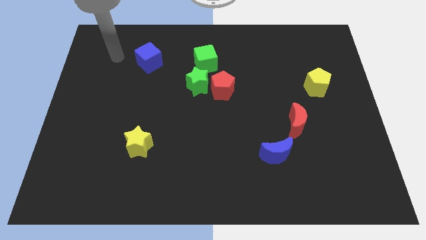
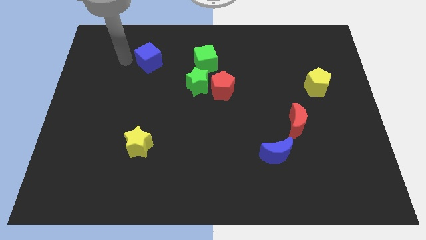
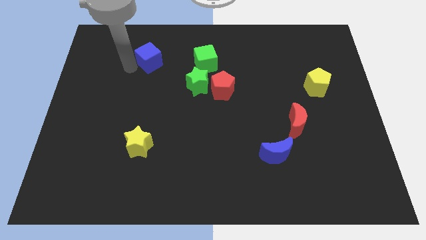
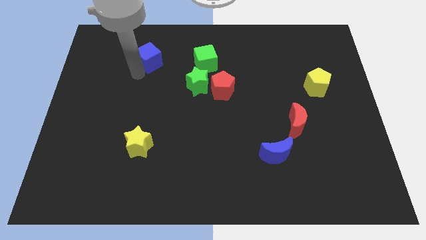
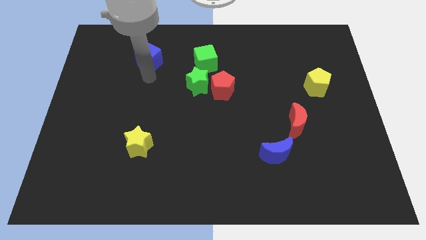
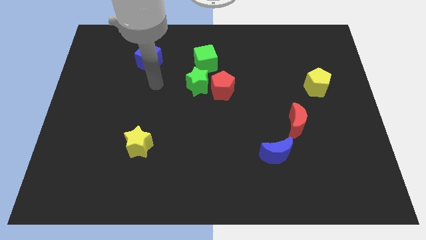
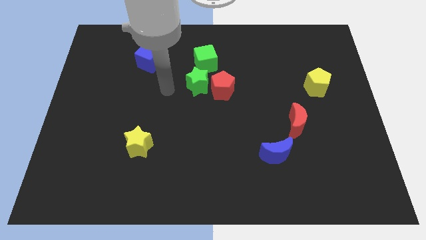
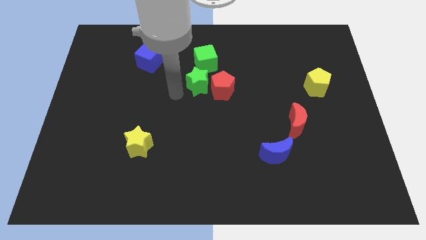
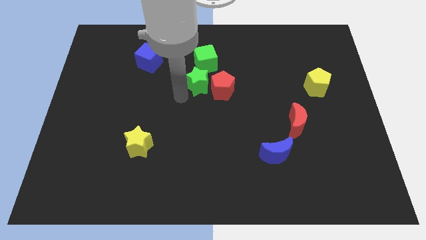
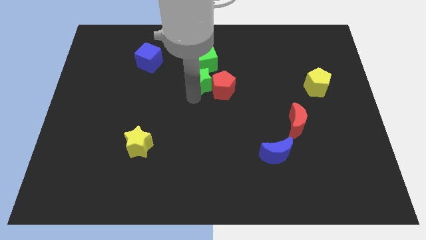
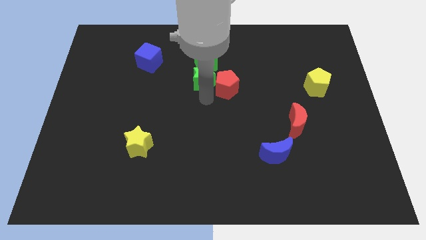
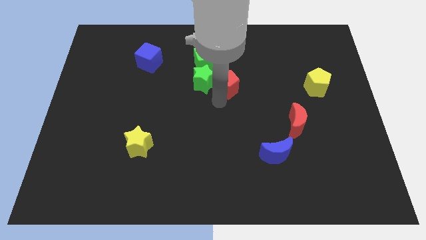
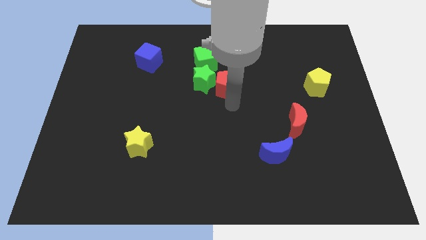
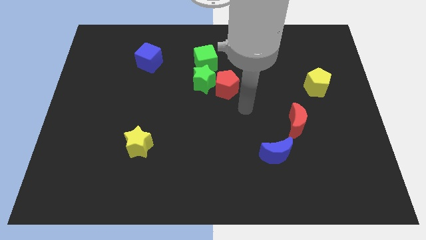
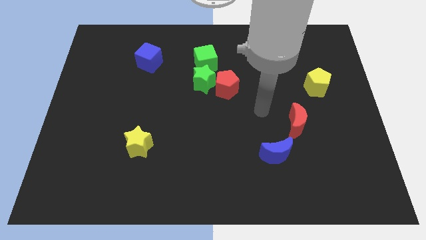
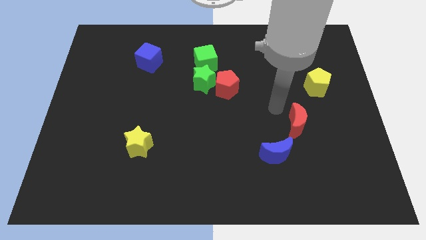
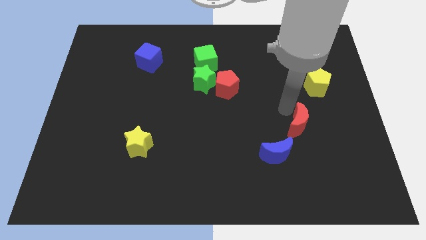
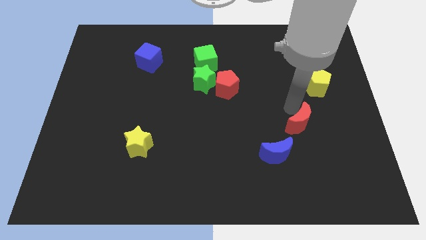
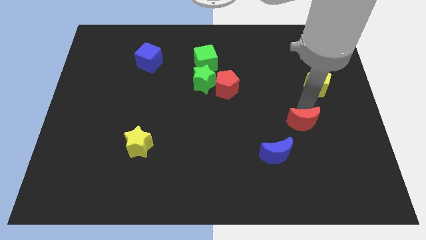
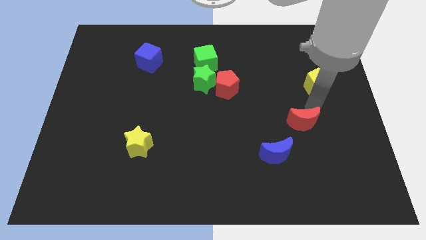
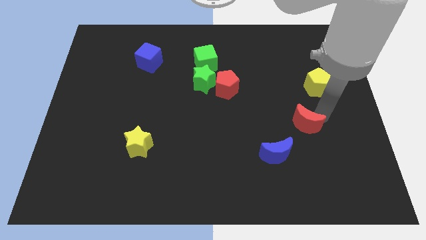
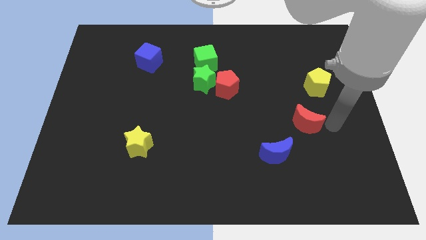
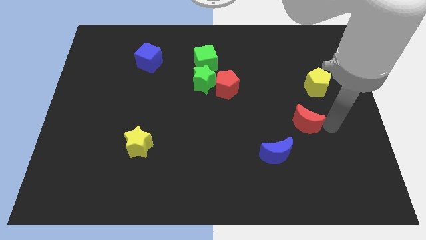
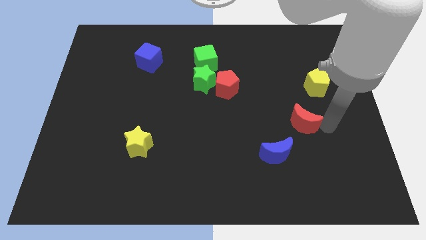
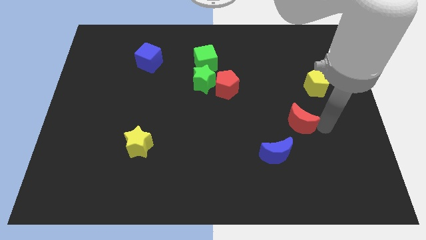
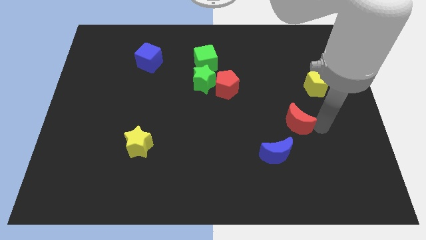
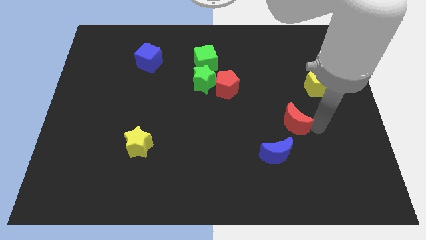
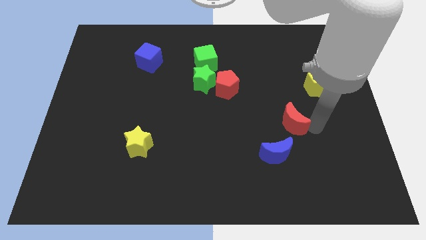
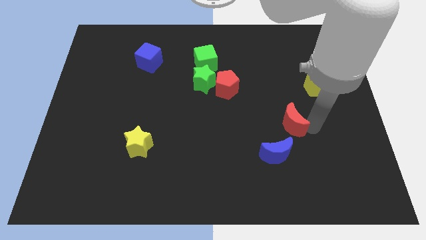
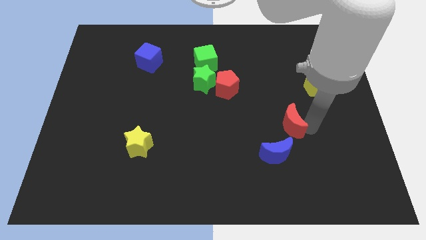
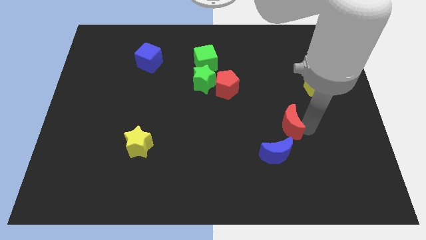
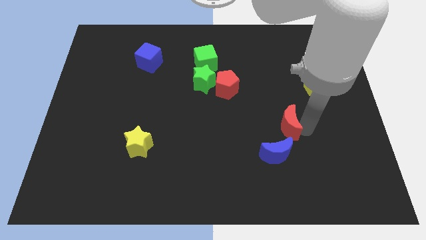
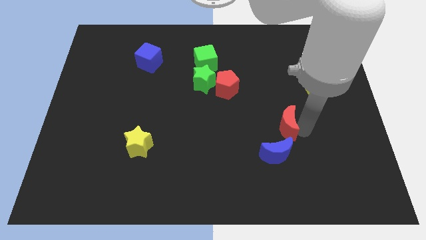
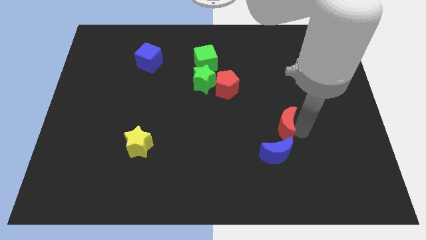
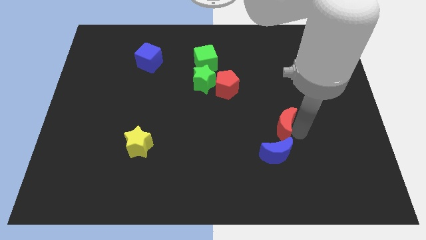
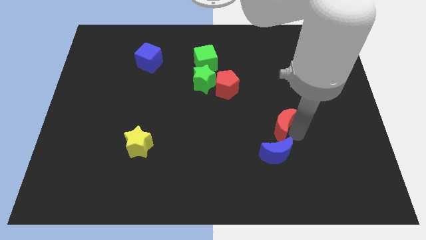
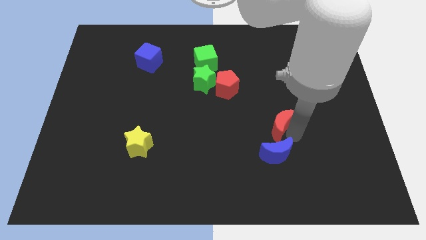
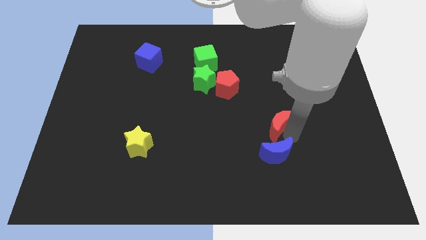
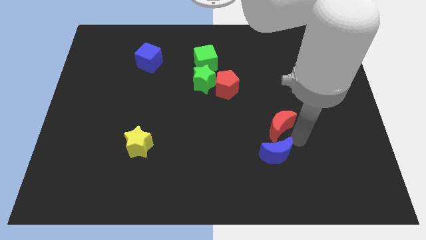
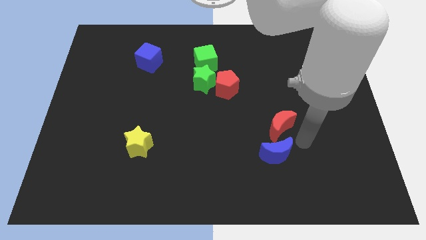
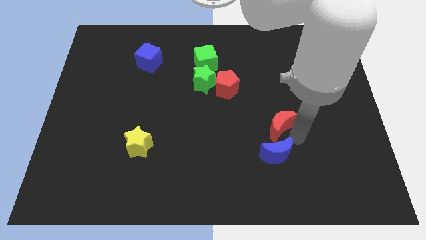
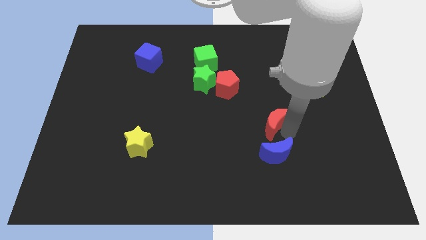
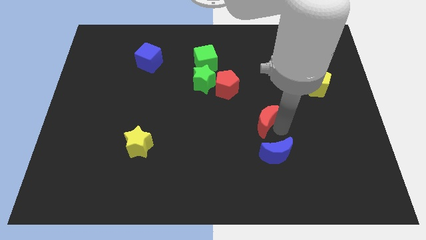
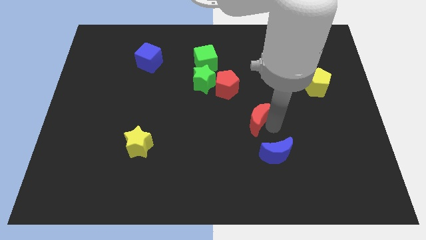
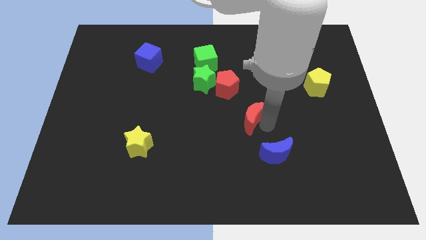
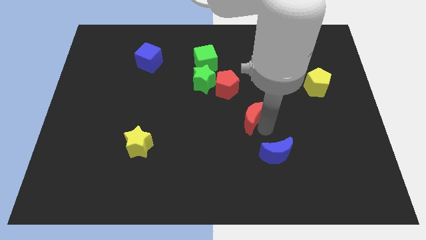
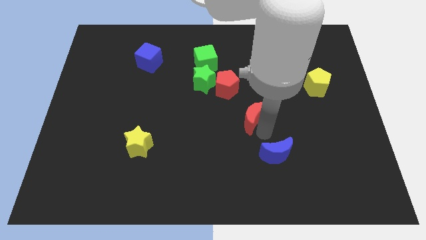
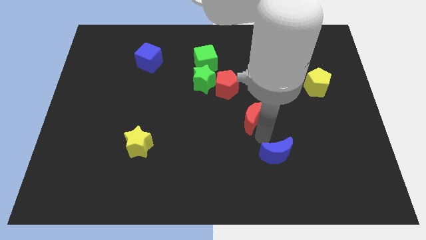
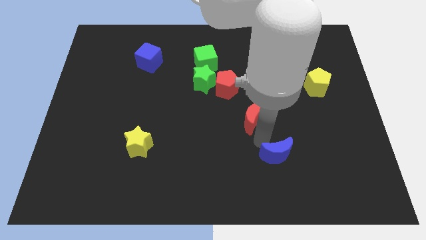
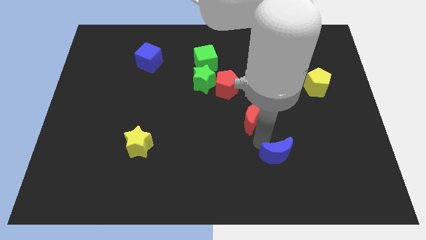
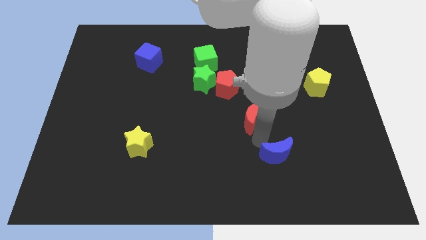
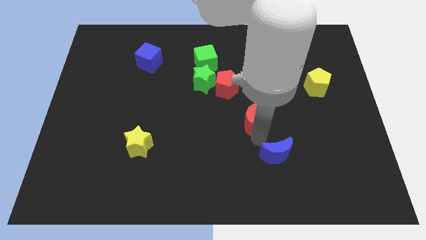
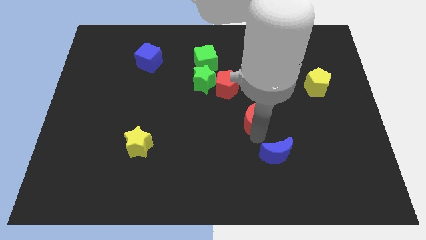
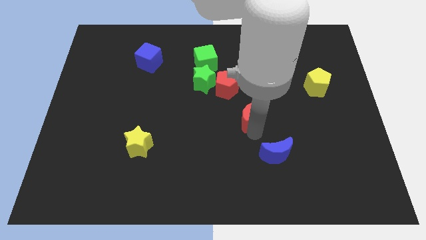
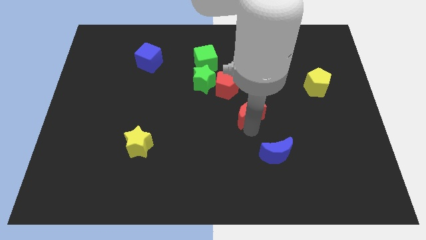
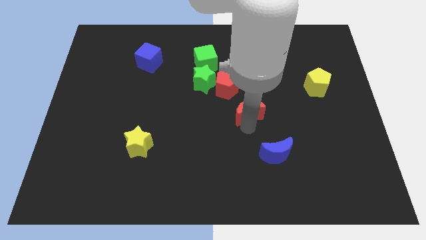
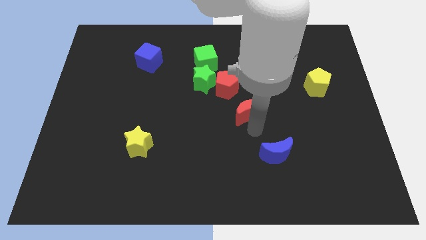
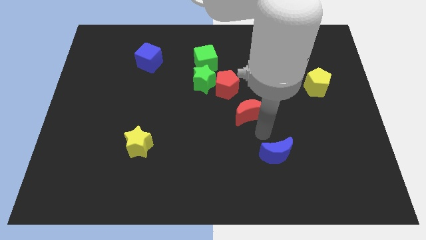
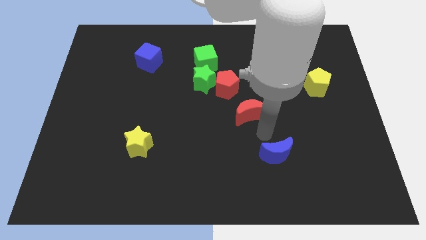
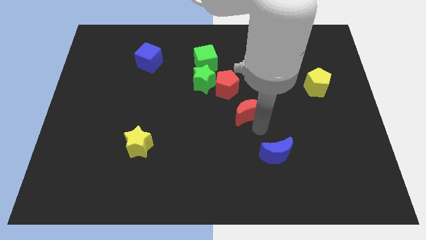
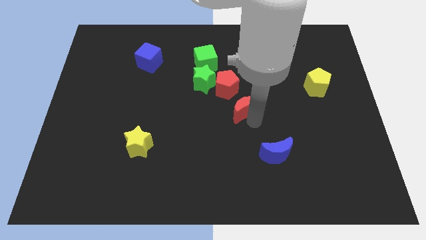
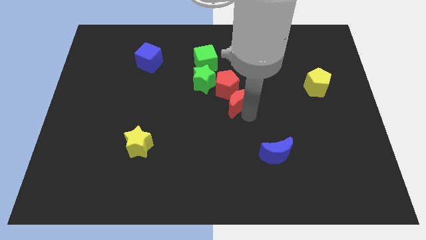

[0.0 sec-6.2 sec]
push the red moon close to the red pentagon

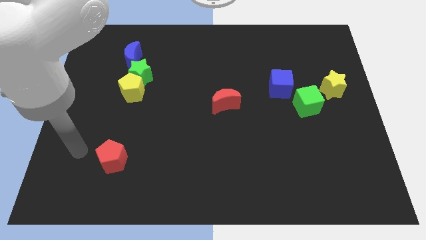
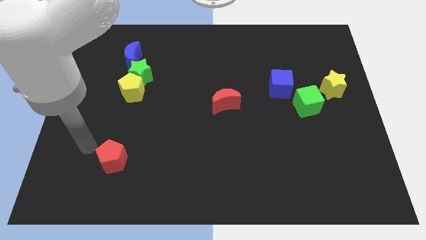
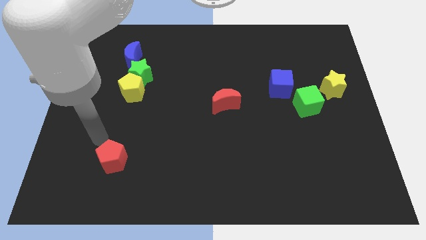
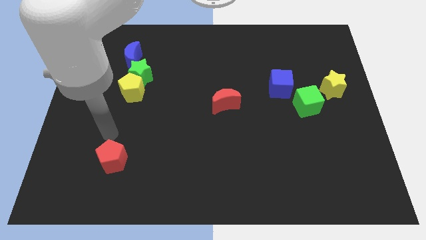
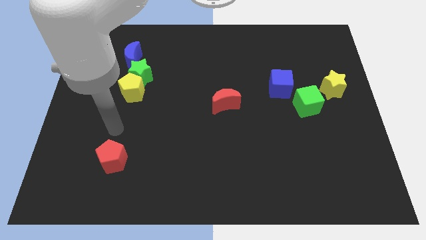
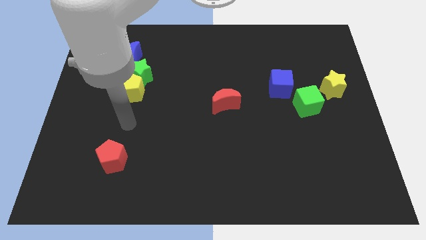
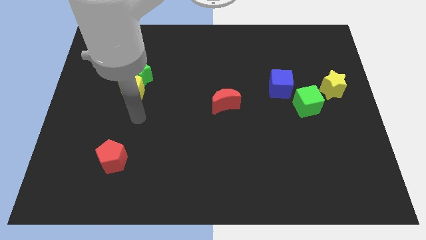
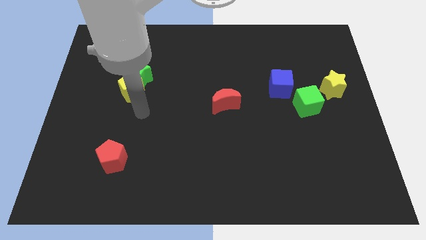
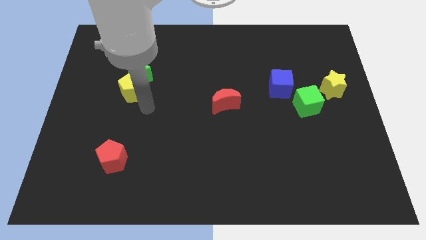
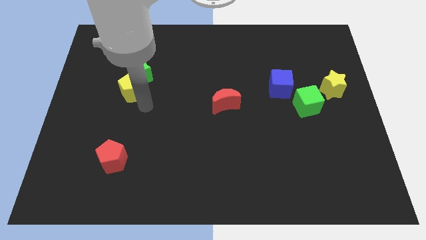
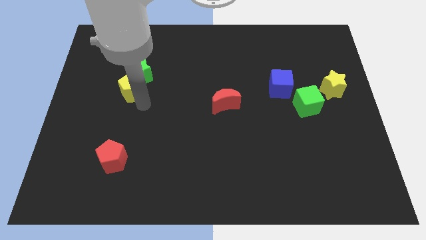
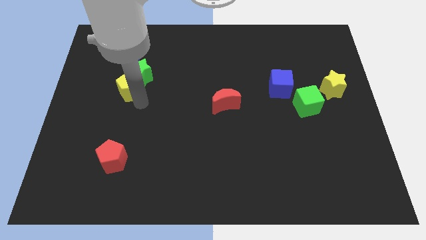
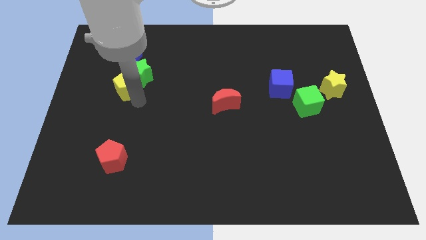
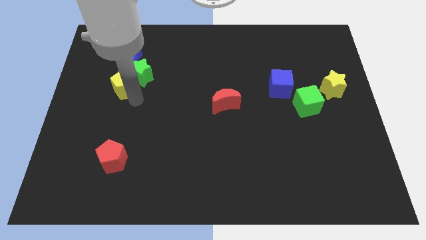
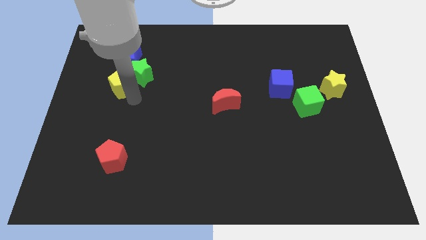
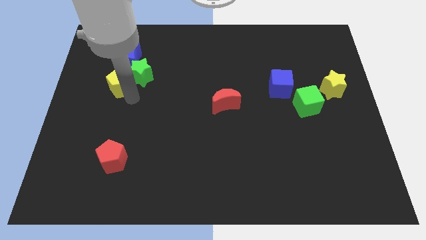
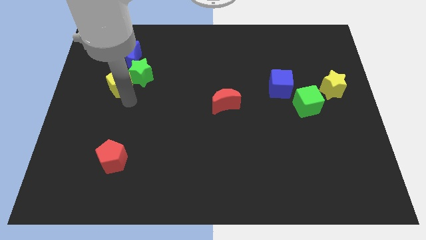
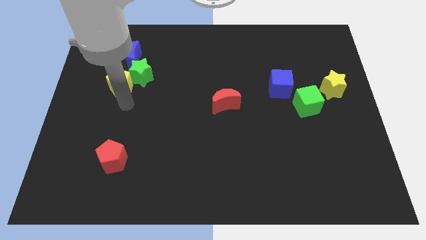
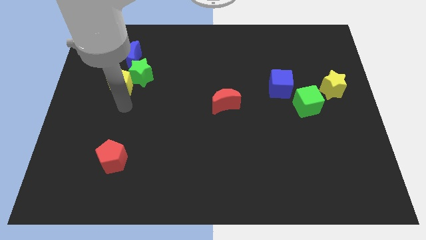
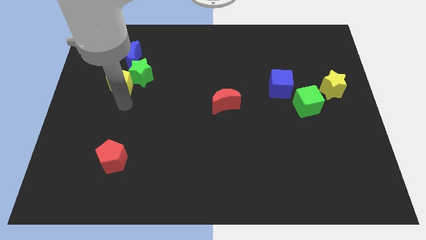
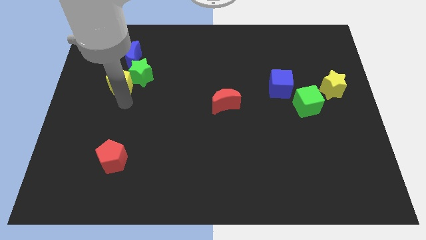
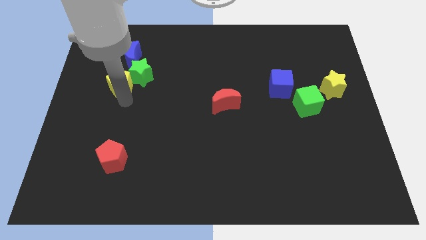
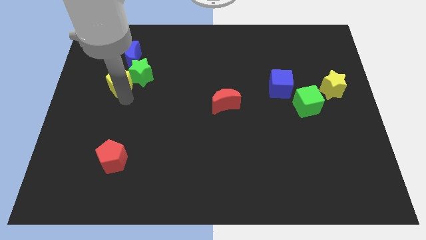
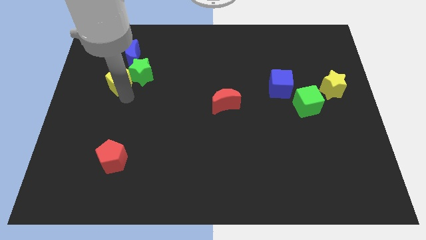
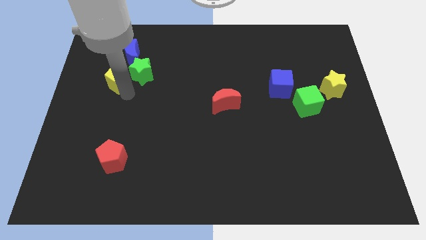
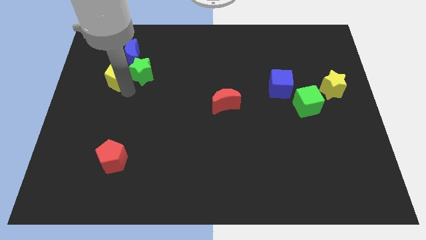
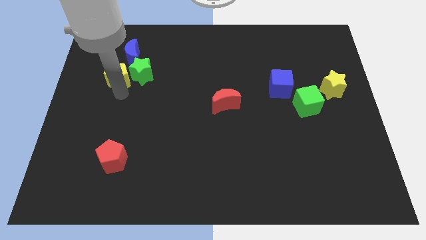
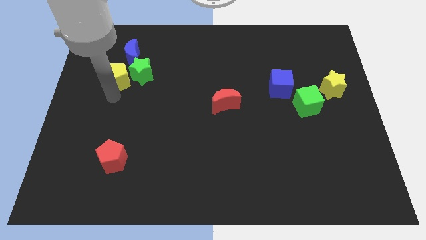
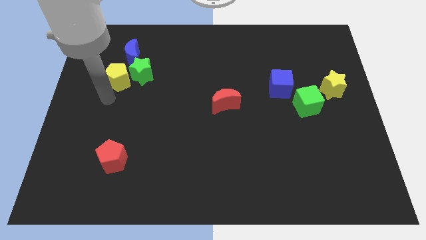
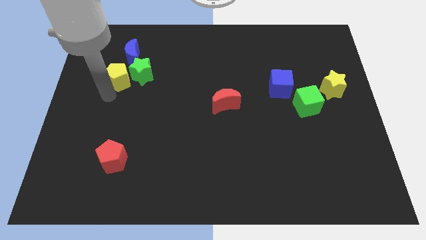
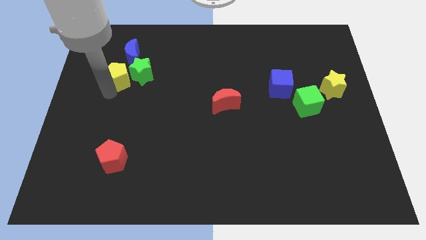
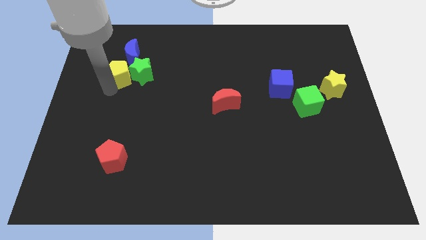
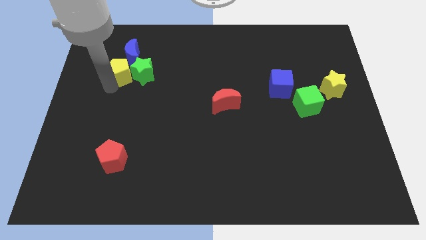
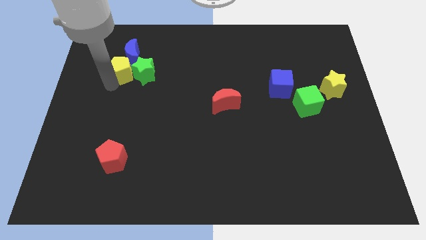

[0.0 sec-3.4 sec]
slide the yellow pentagon towards the blue moon
